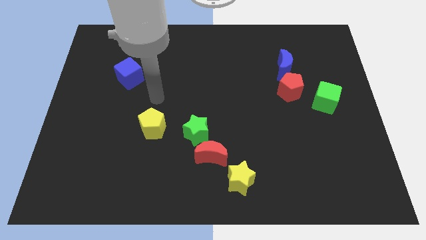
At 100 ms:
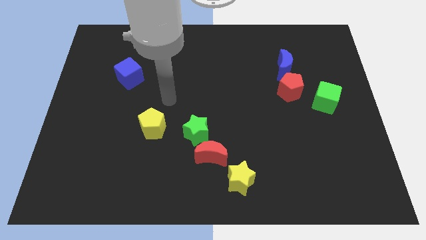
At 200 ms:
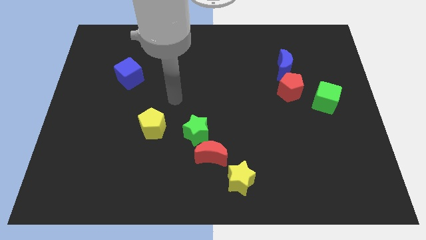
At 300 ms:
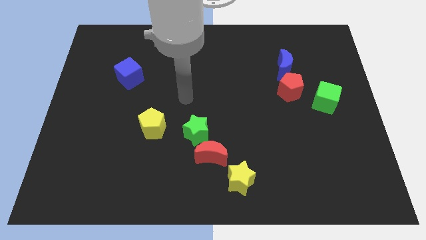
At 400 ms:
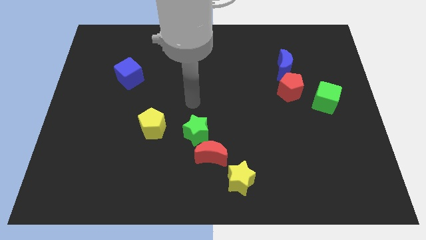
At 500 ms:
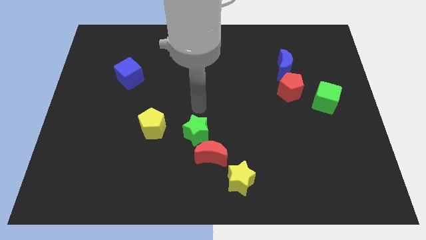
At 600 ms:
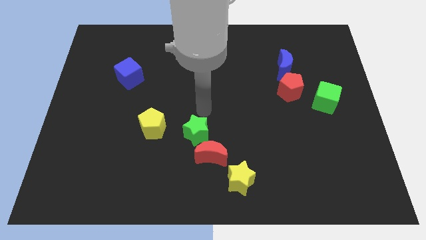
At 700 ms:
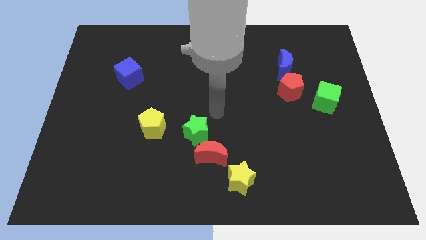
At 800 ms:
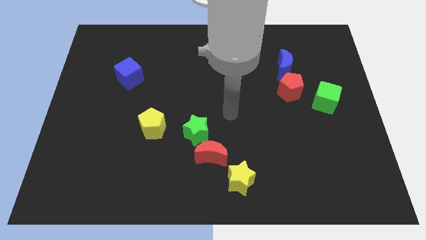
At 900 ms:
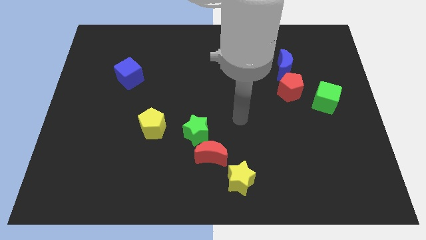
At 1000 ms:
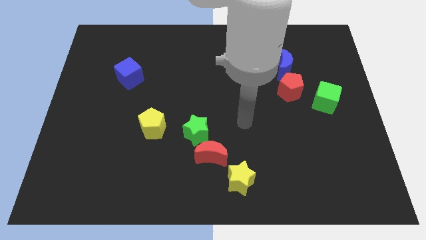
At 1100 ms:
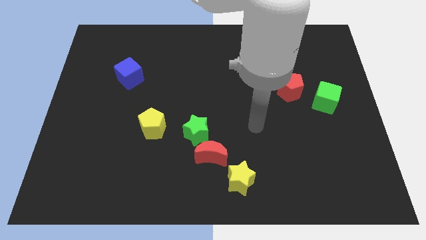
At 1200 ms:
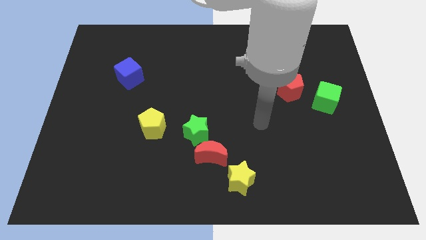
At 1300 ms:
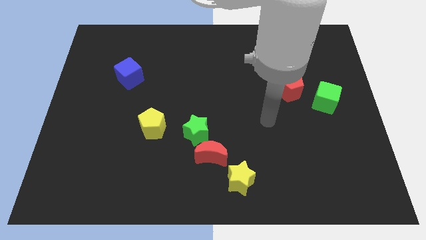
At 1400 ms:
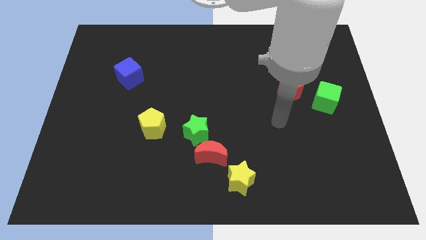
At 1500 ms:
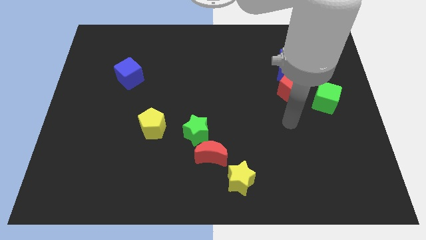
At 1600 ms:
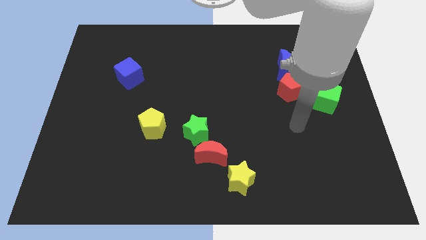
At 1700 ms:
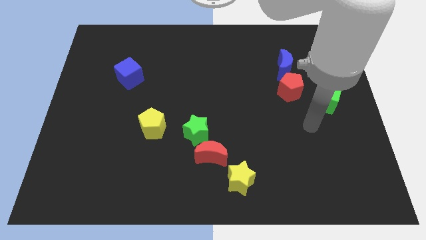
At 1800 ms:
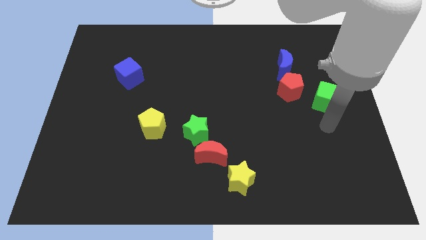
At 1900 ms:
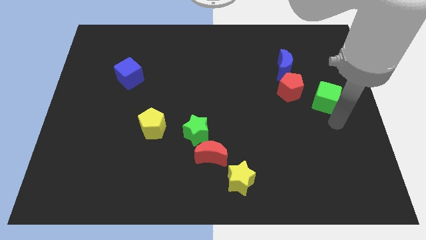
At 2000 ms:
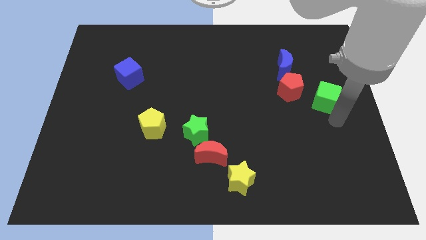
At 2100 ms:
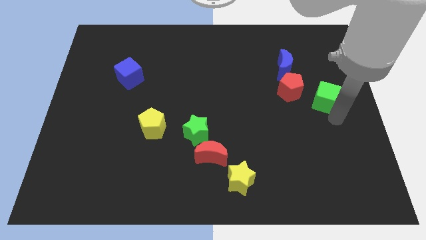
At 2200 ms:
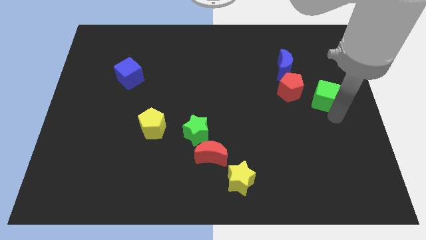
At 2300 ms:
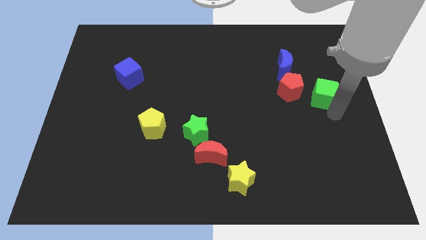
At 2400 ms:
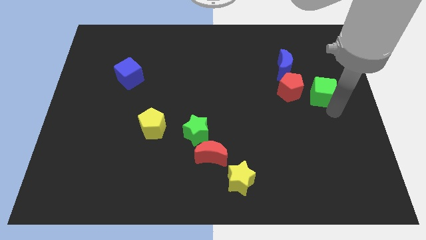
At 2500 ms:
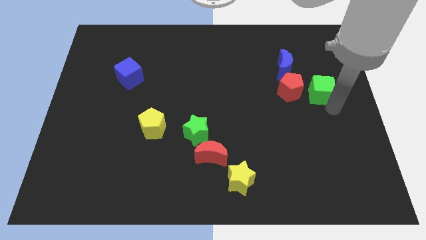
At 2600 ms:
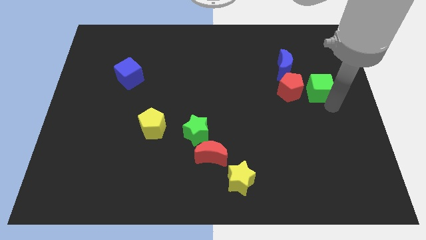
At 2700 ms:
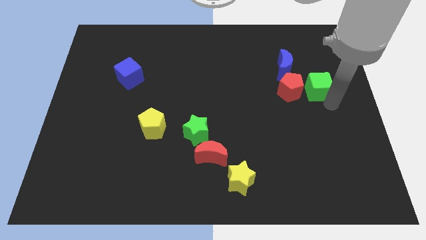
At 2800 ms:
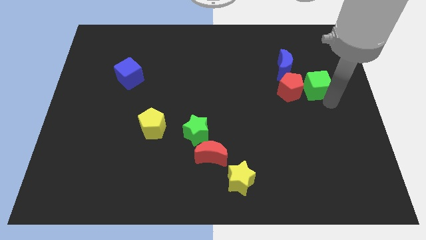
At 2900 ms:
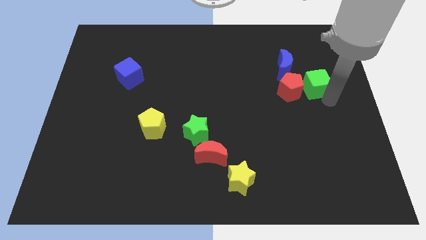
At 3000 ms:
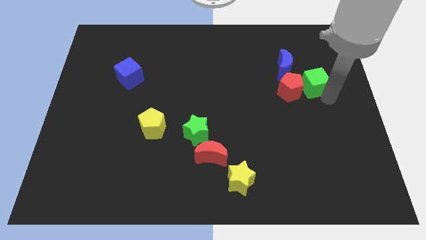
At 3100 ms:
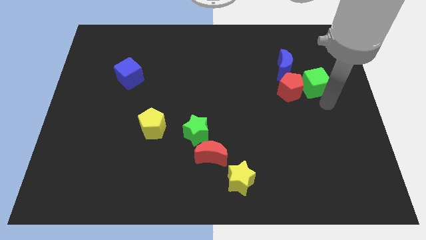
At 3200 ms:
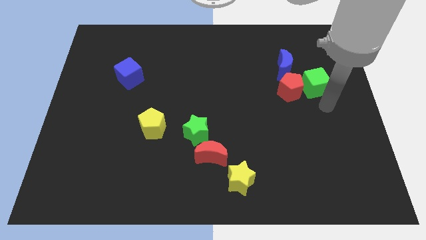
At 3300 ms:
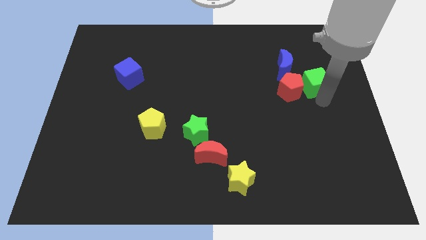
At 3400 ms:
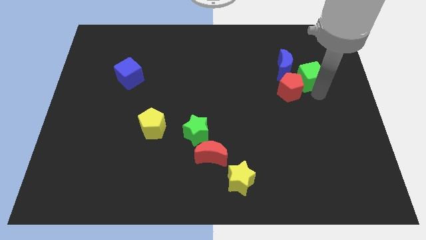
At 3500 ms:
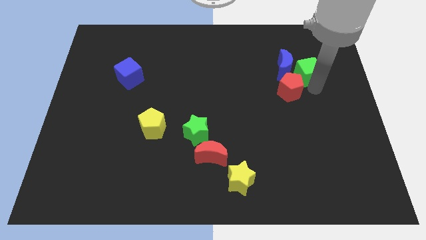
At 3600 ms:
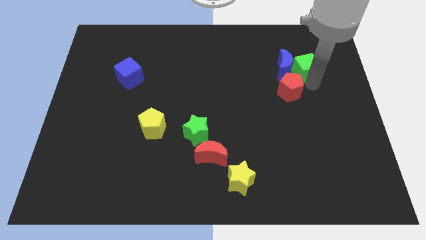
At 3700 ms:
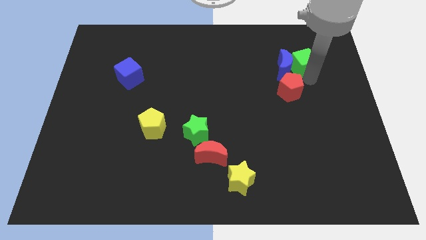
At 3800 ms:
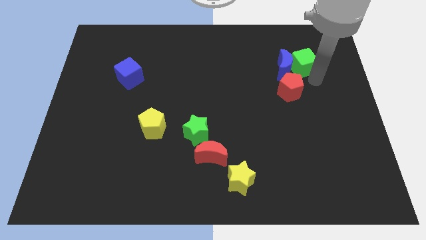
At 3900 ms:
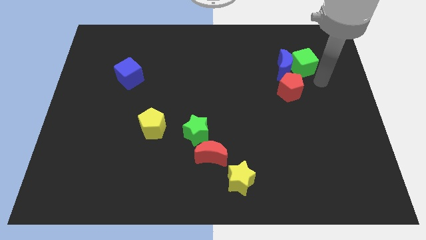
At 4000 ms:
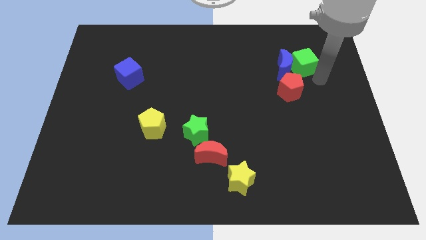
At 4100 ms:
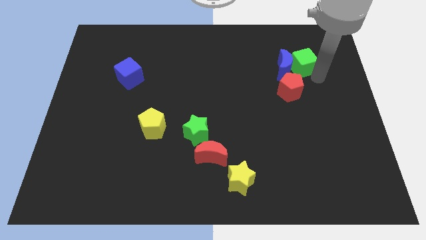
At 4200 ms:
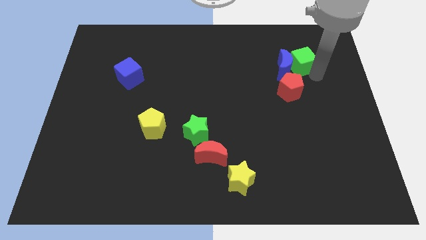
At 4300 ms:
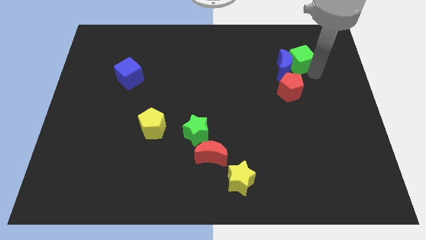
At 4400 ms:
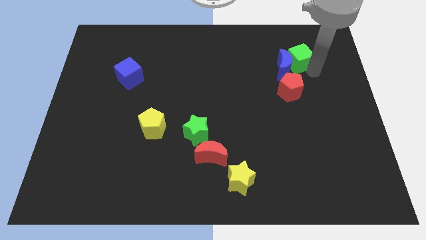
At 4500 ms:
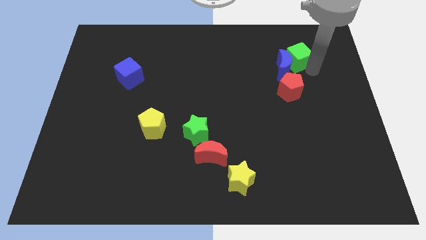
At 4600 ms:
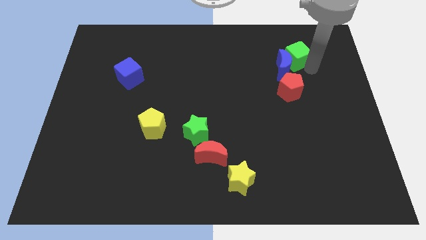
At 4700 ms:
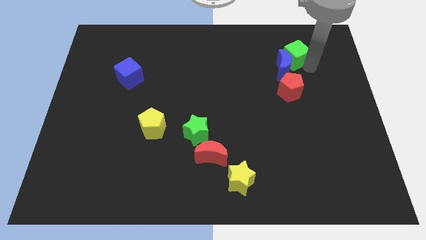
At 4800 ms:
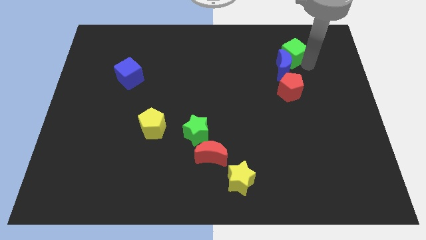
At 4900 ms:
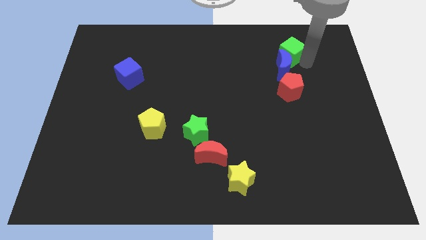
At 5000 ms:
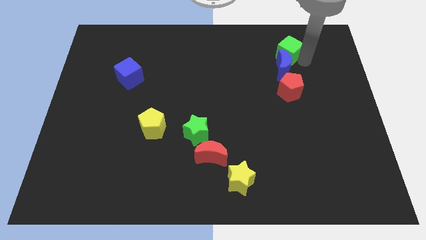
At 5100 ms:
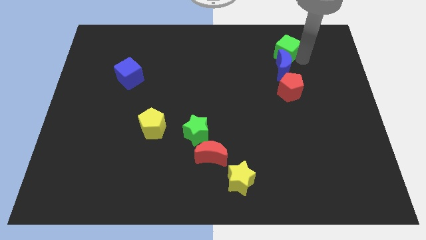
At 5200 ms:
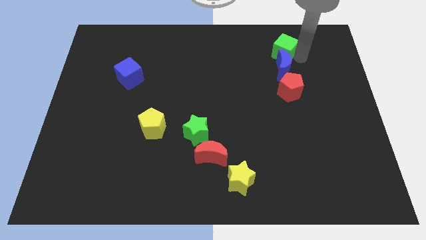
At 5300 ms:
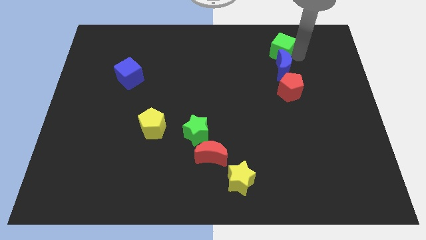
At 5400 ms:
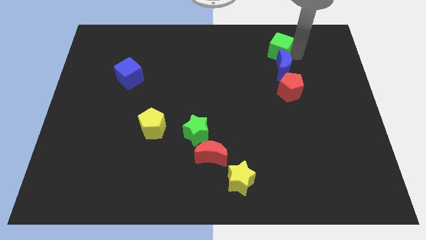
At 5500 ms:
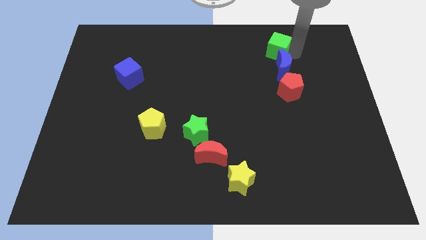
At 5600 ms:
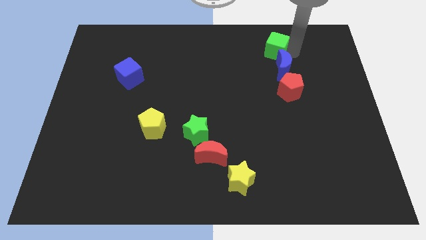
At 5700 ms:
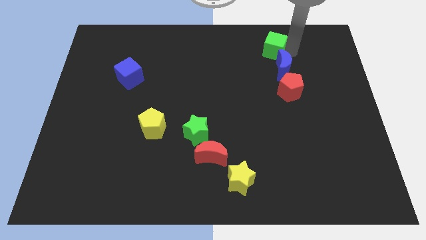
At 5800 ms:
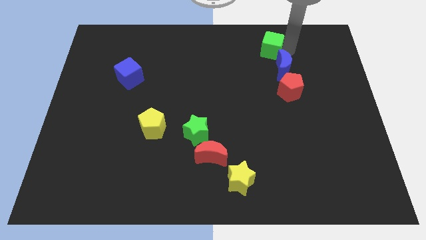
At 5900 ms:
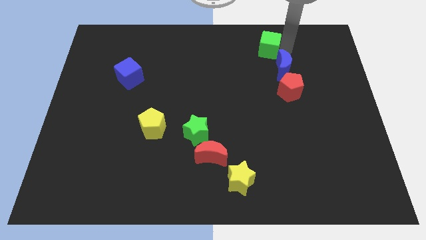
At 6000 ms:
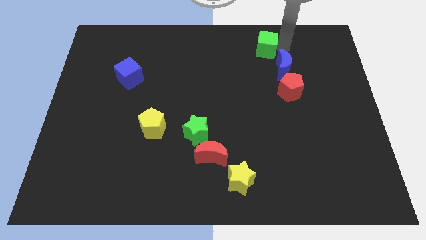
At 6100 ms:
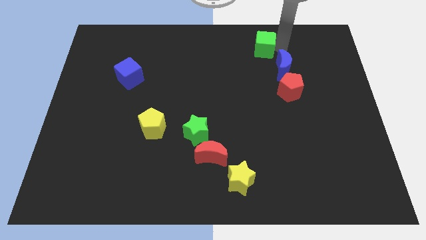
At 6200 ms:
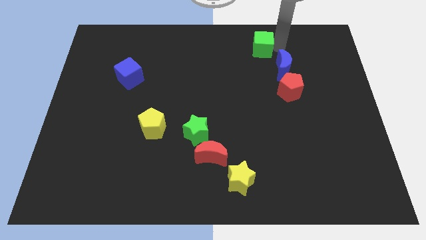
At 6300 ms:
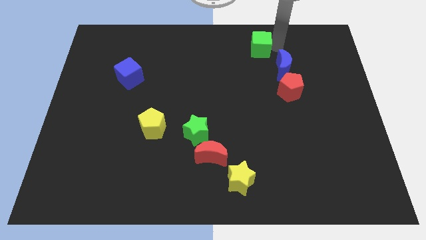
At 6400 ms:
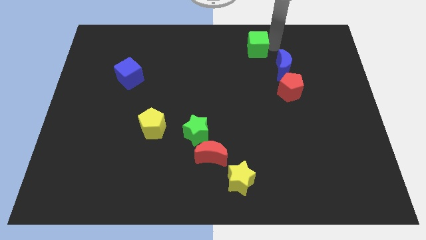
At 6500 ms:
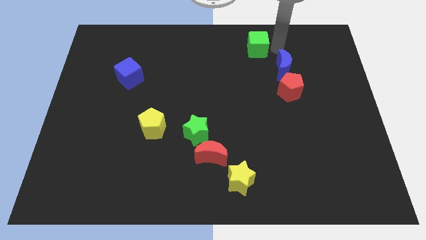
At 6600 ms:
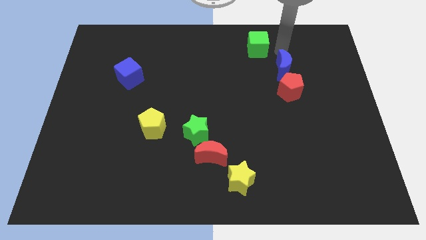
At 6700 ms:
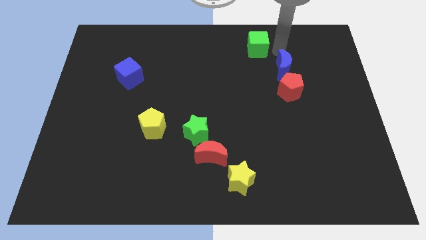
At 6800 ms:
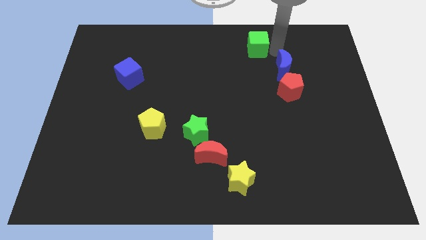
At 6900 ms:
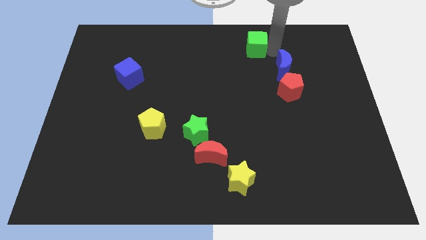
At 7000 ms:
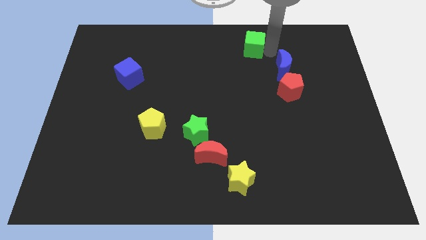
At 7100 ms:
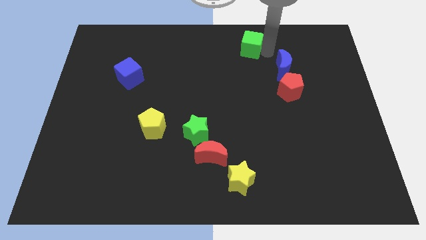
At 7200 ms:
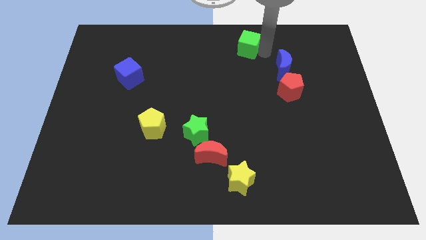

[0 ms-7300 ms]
slide the green cube to the top side
